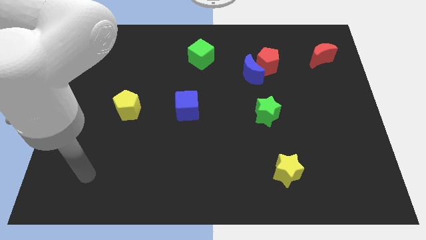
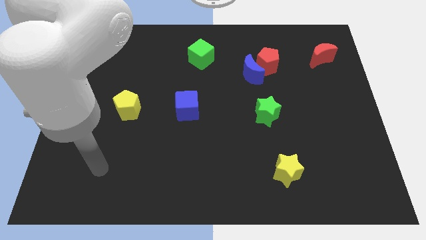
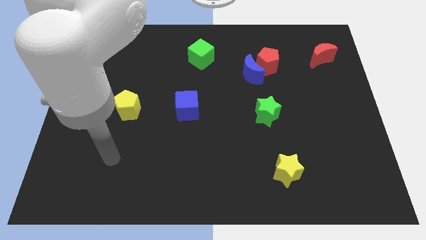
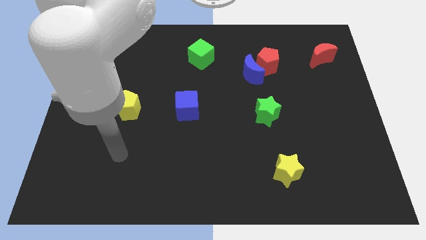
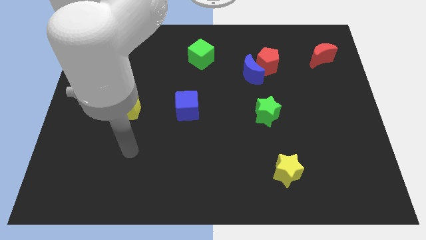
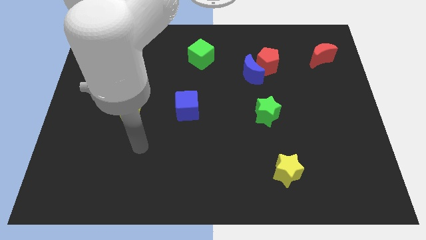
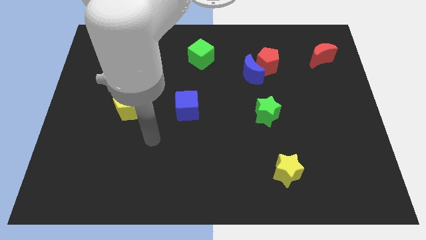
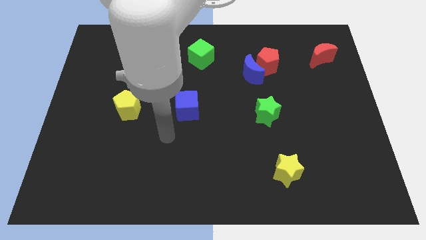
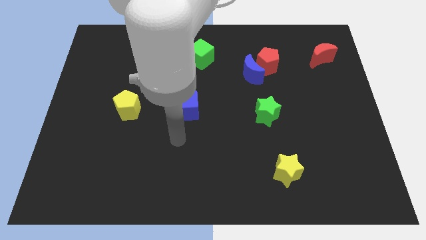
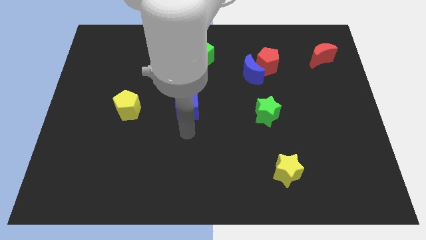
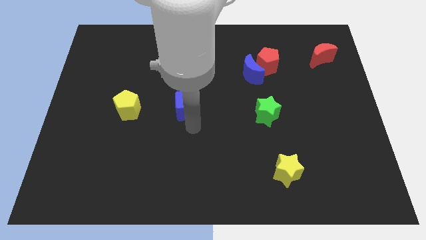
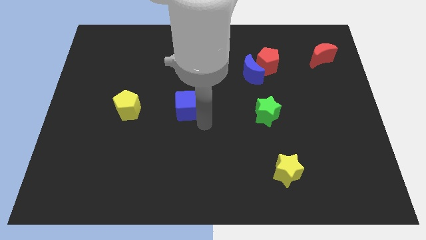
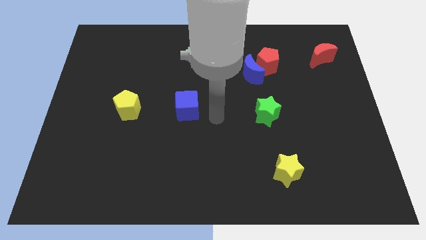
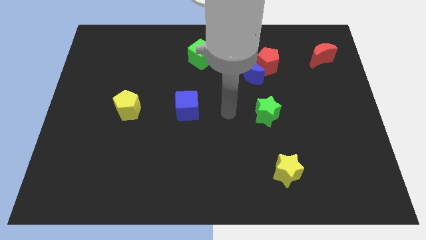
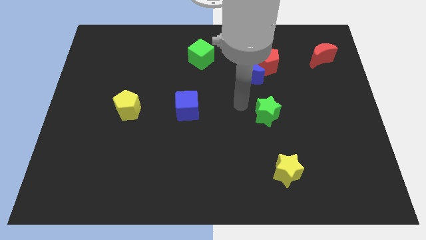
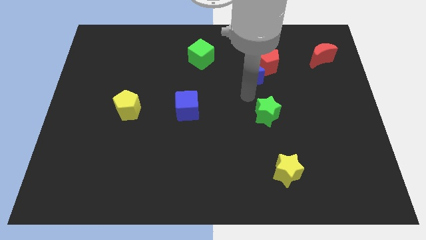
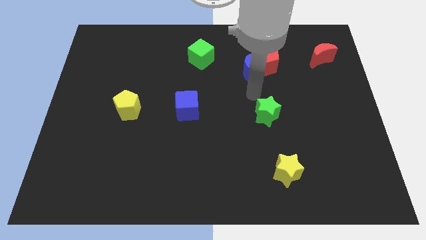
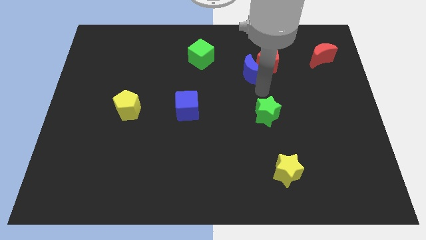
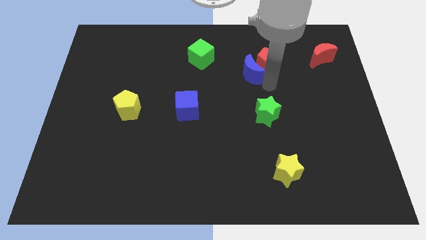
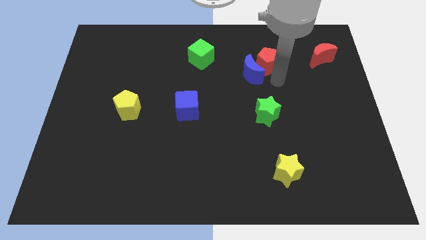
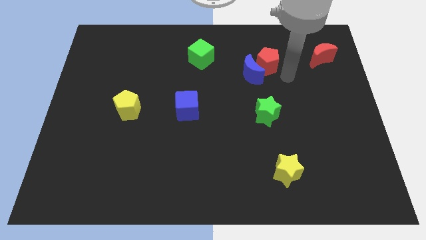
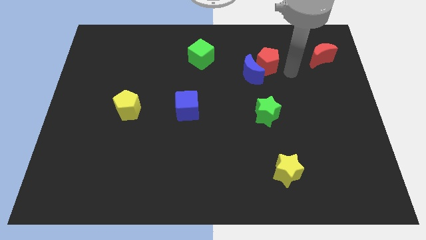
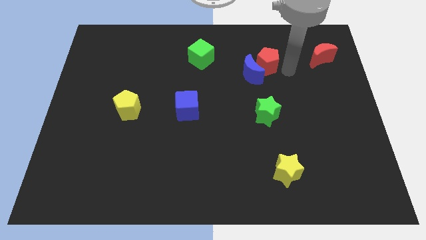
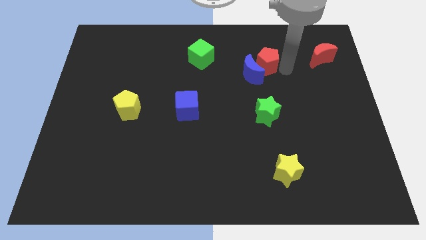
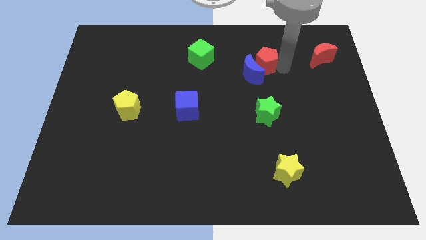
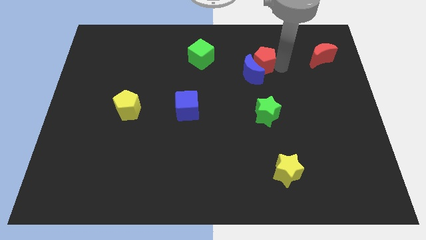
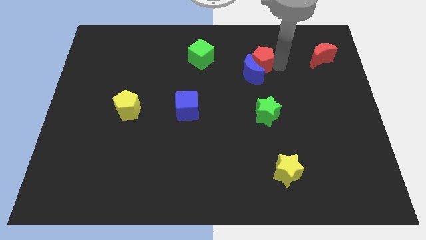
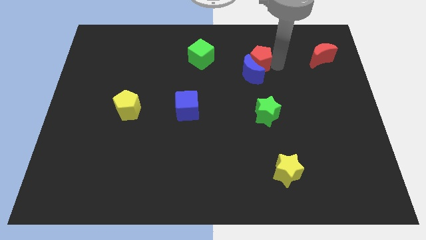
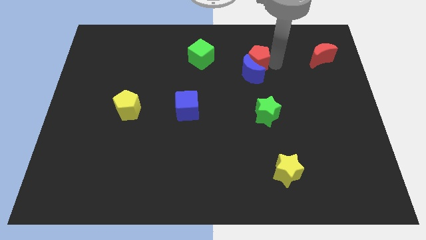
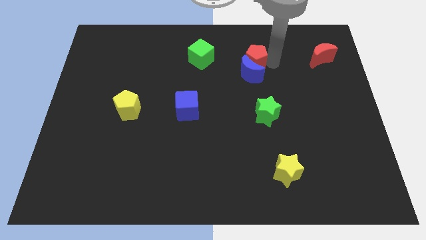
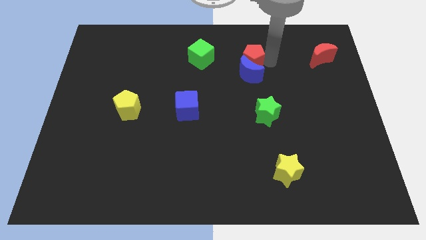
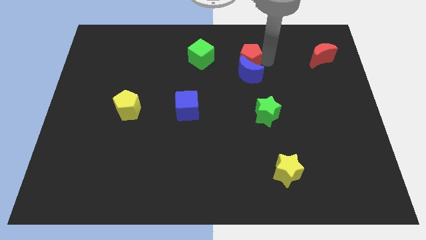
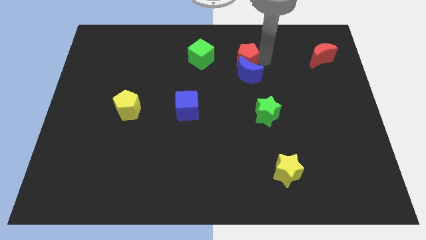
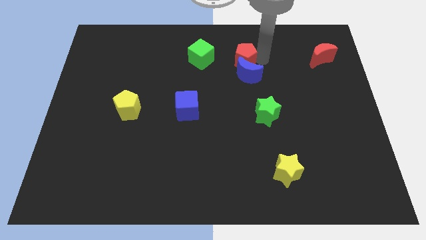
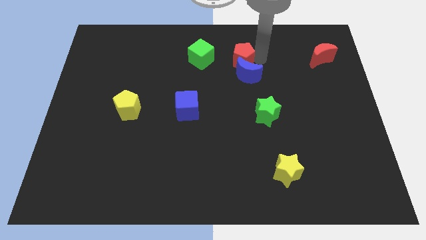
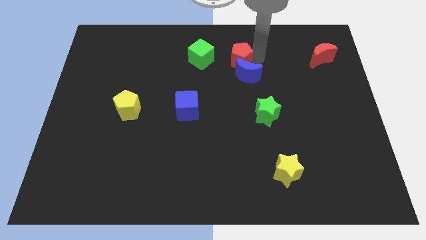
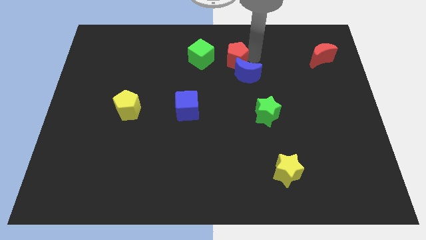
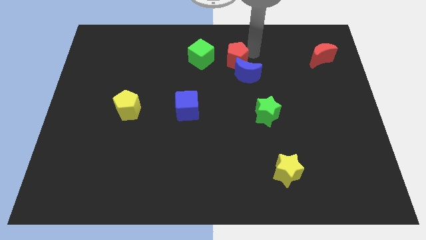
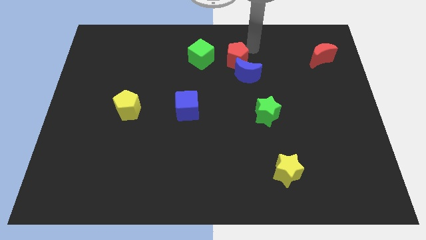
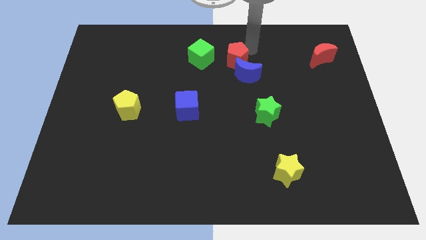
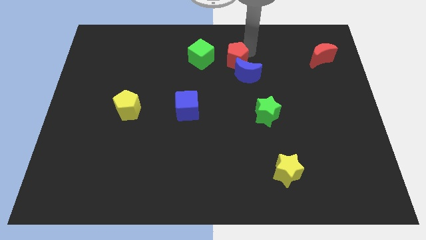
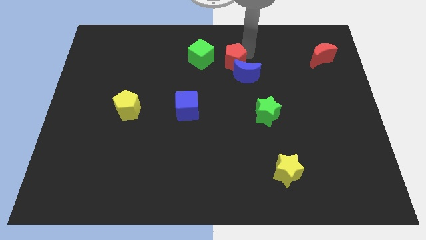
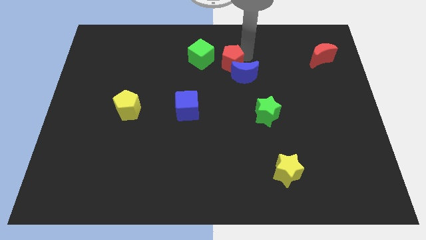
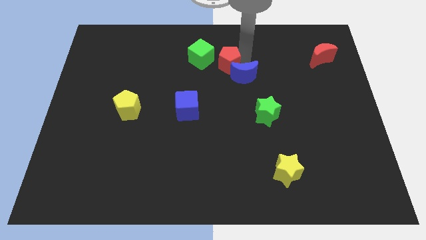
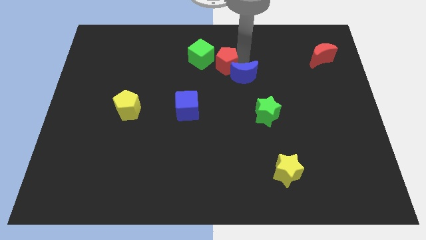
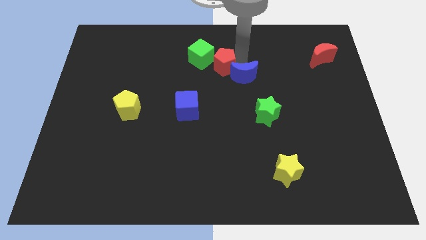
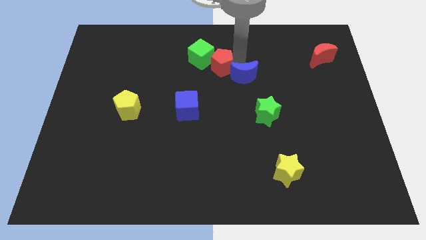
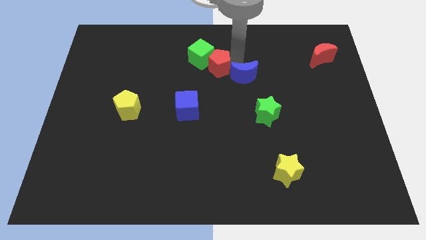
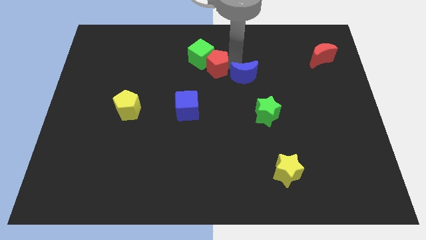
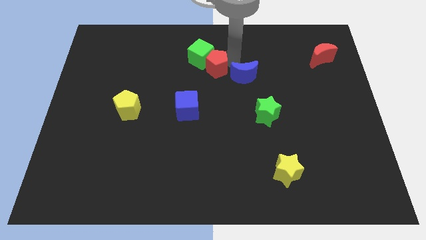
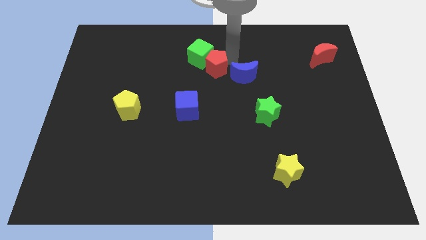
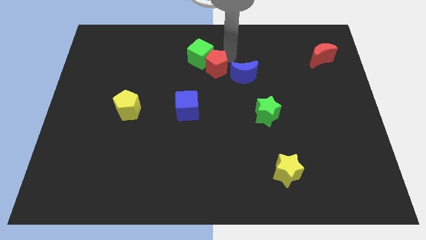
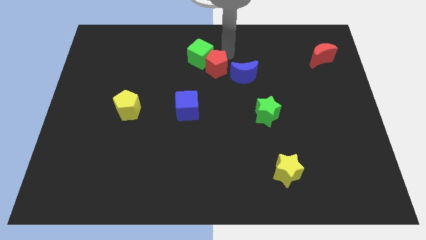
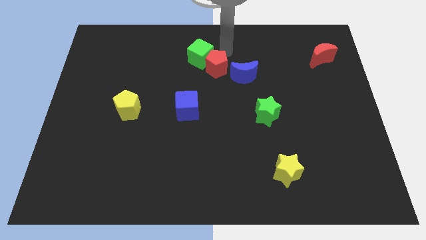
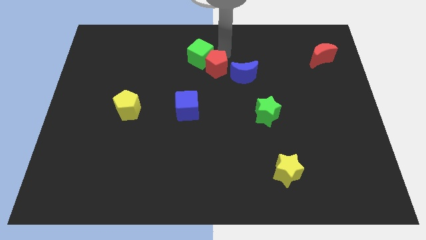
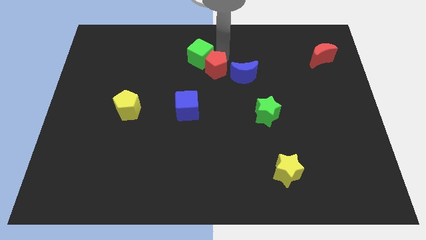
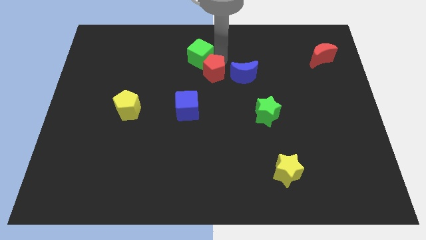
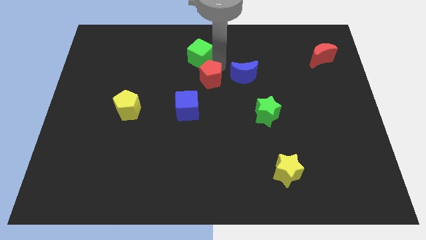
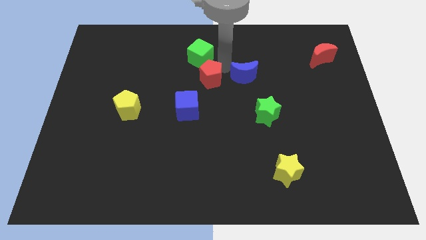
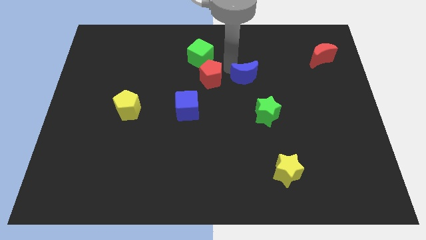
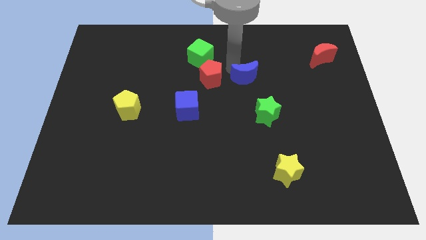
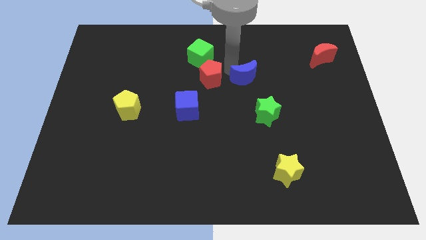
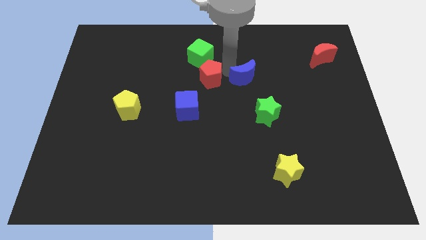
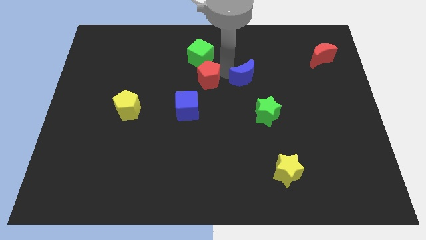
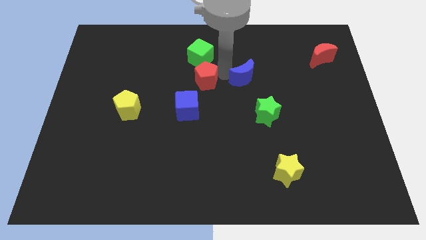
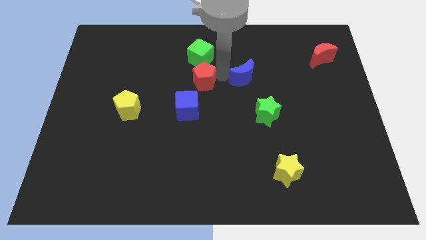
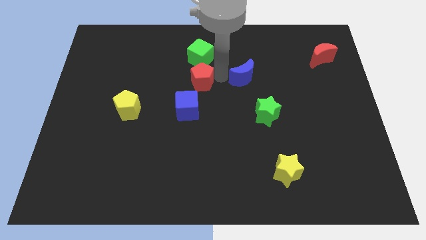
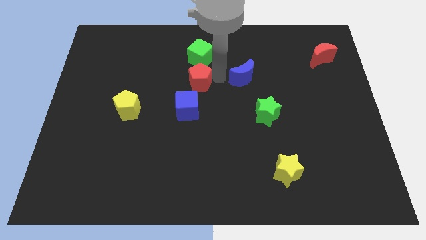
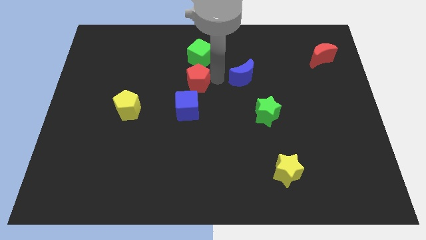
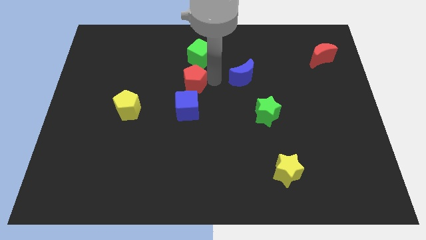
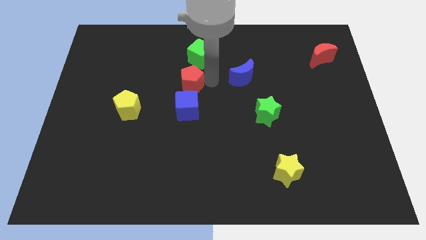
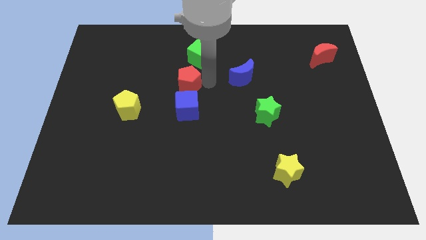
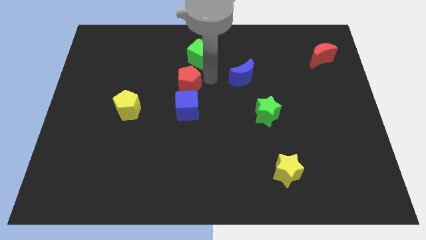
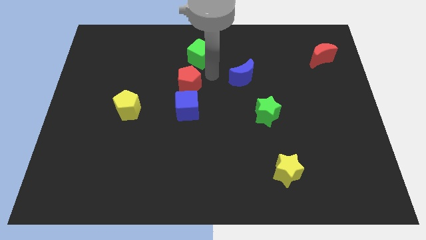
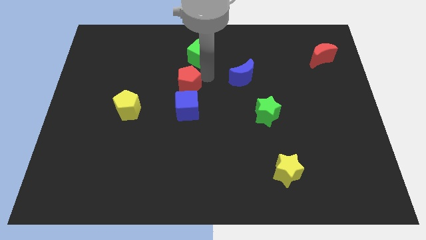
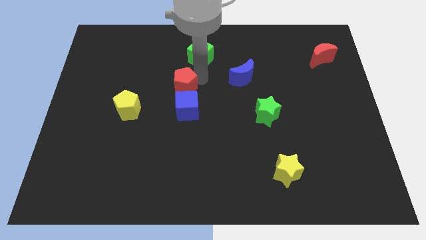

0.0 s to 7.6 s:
move the red pentagon to the top left of the blue cube
